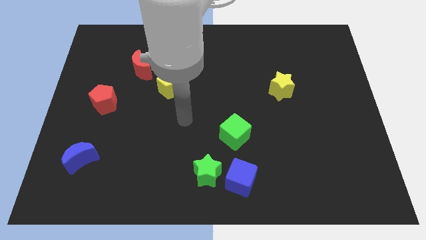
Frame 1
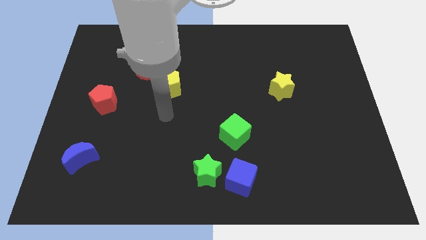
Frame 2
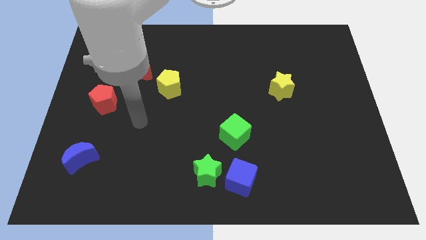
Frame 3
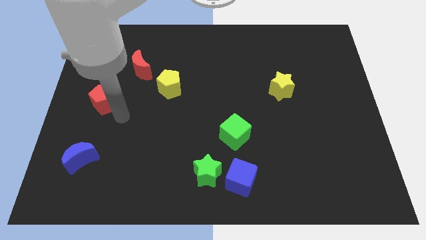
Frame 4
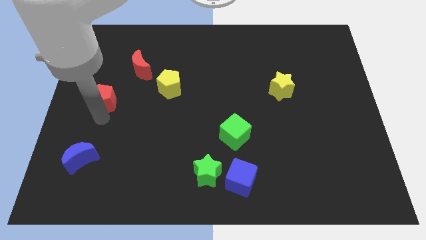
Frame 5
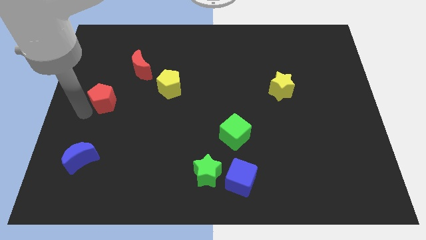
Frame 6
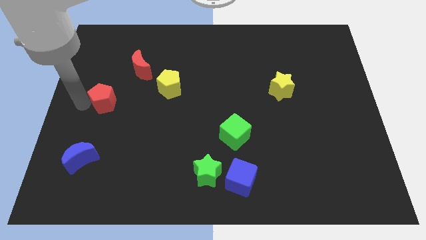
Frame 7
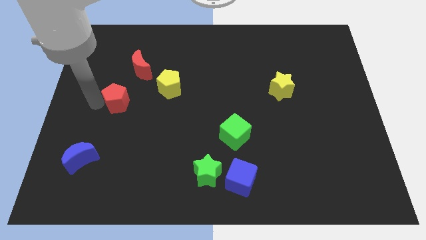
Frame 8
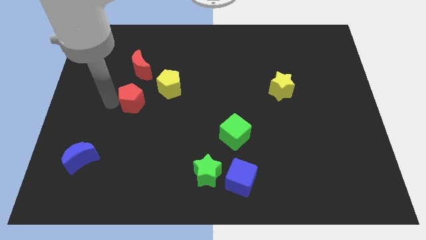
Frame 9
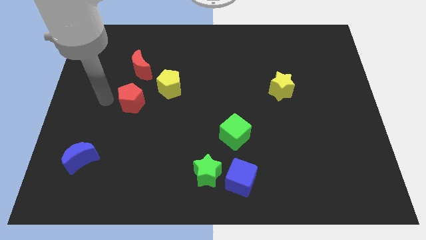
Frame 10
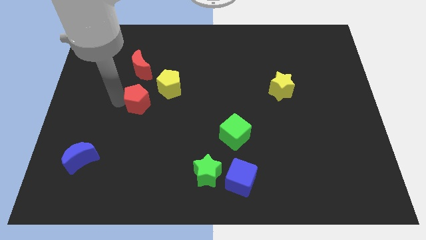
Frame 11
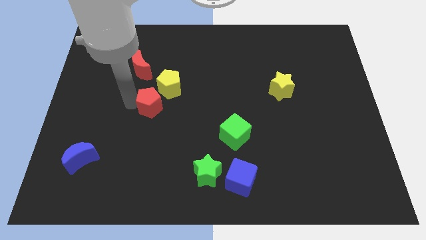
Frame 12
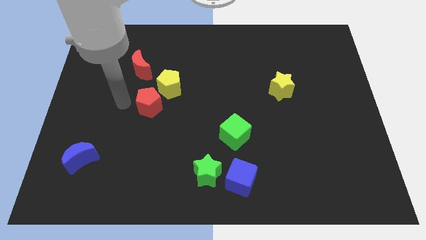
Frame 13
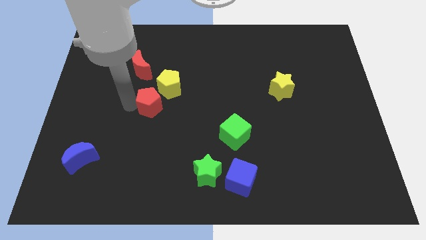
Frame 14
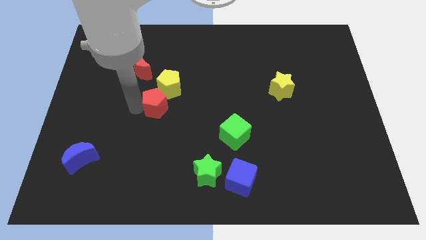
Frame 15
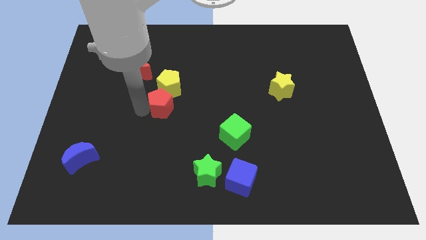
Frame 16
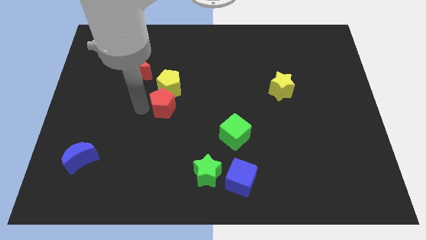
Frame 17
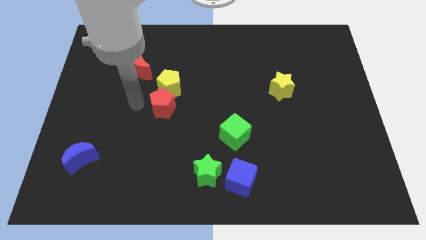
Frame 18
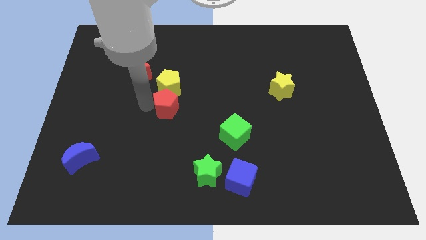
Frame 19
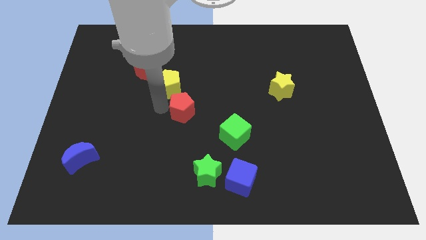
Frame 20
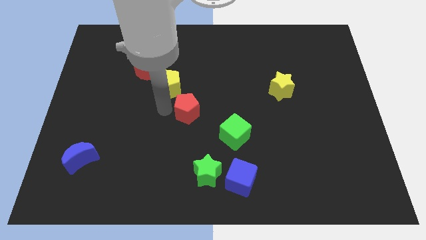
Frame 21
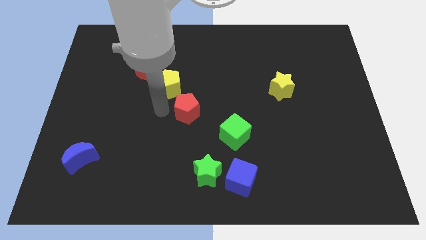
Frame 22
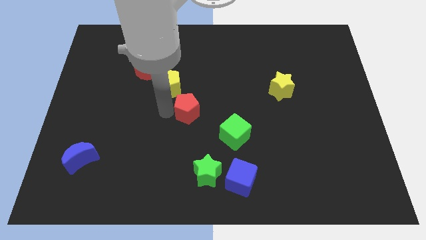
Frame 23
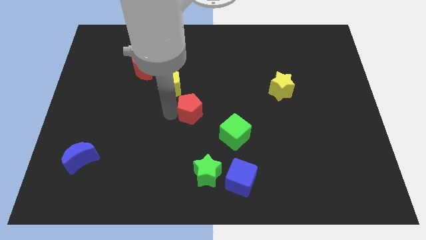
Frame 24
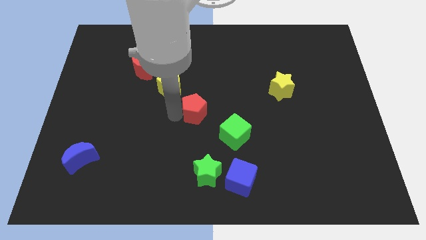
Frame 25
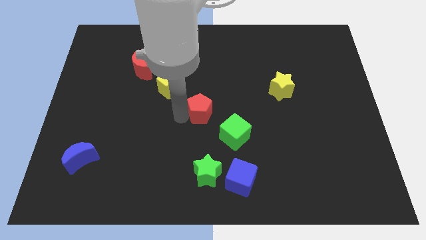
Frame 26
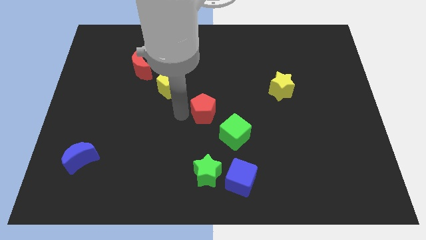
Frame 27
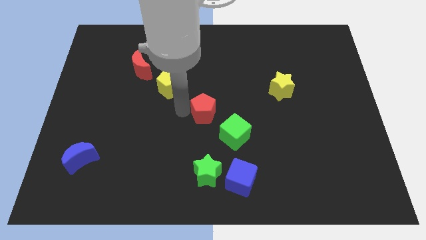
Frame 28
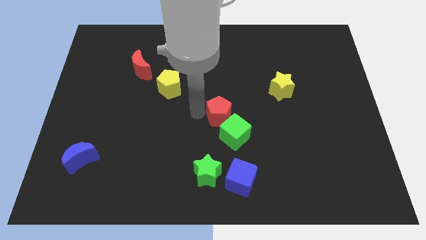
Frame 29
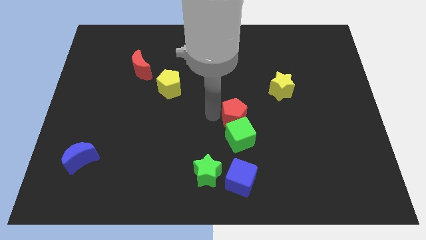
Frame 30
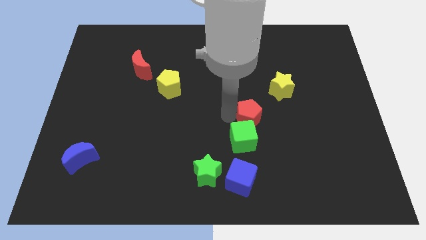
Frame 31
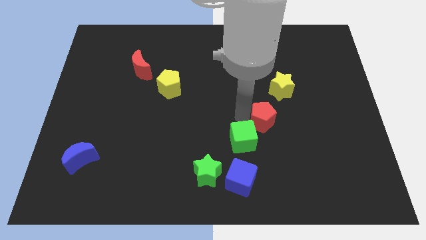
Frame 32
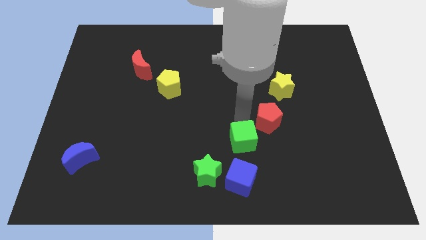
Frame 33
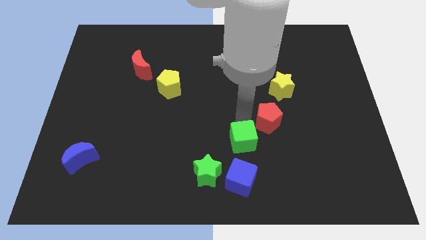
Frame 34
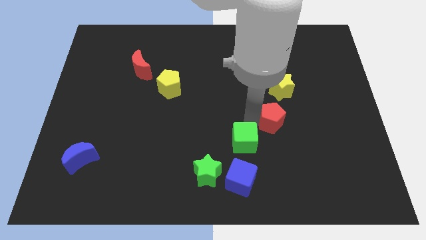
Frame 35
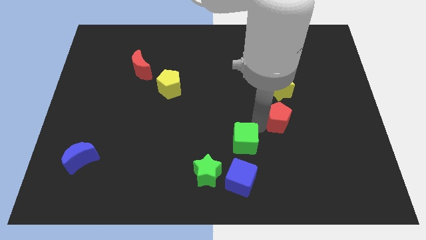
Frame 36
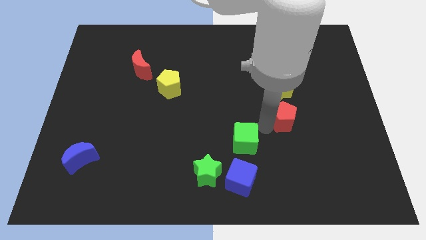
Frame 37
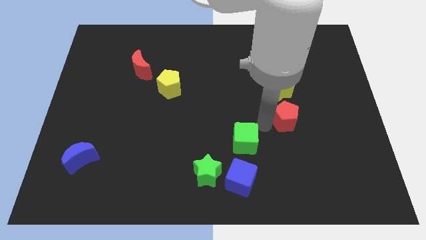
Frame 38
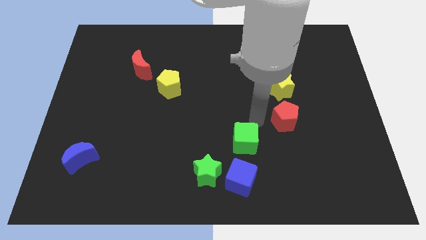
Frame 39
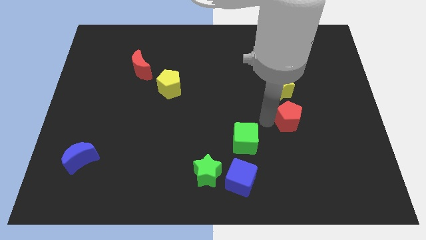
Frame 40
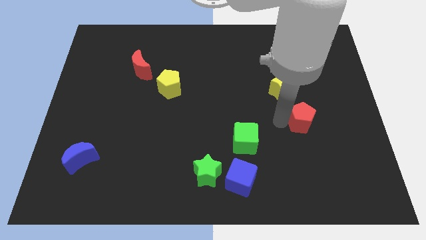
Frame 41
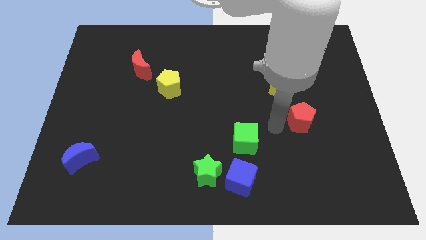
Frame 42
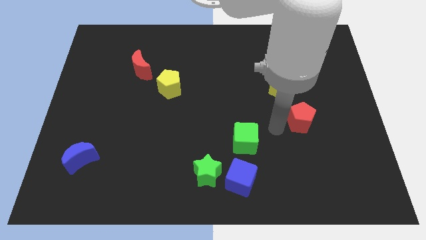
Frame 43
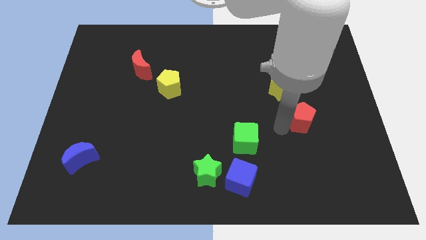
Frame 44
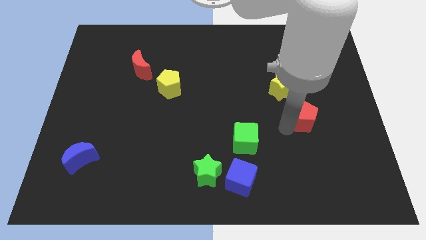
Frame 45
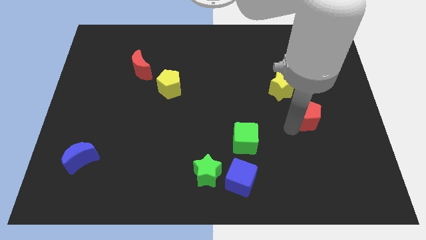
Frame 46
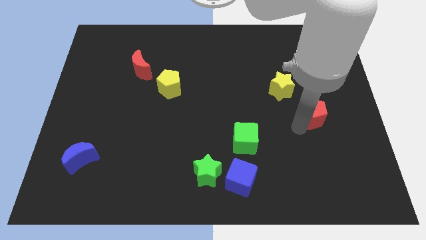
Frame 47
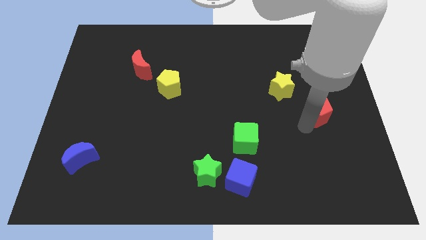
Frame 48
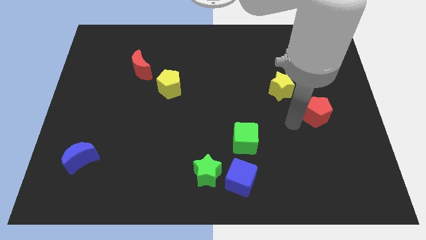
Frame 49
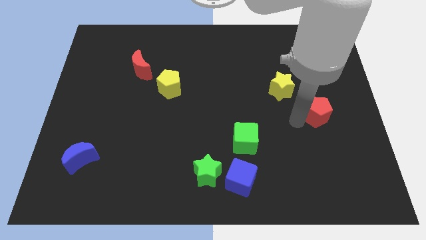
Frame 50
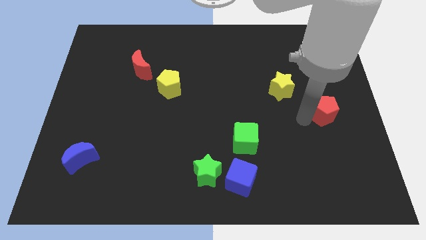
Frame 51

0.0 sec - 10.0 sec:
move the red pentagon to the right side of the board
